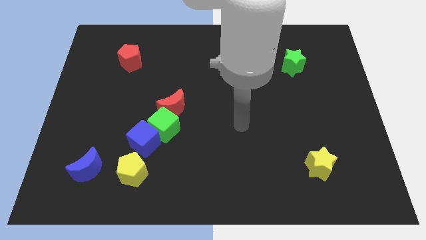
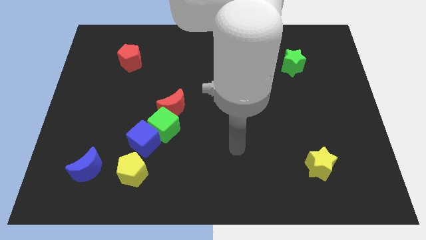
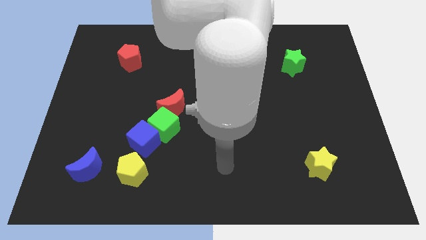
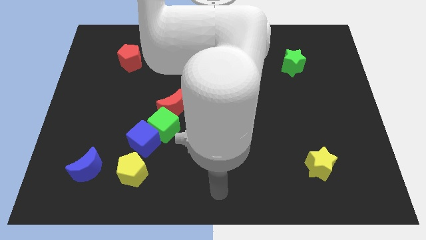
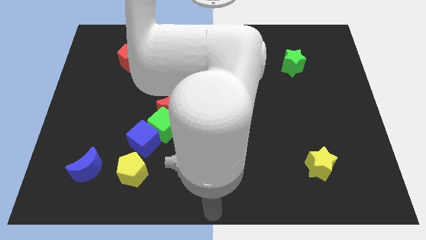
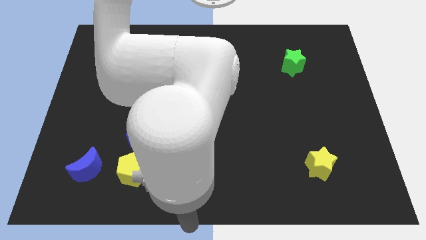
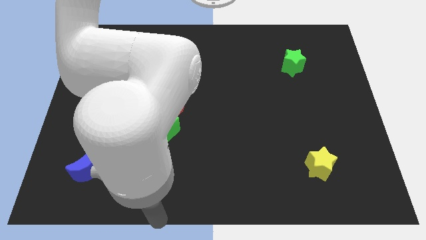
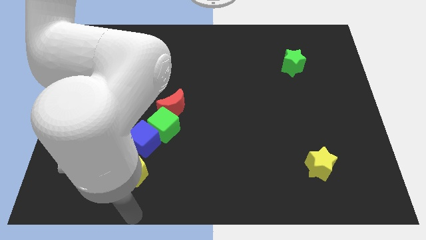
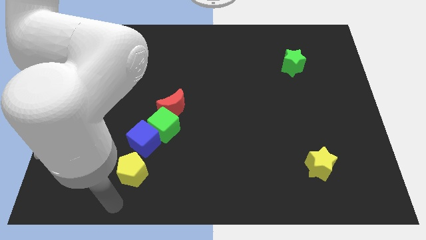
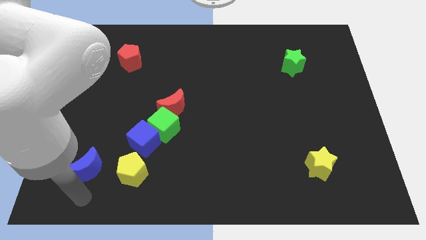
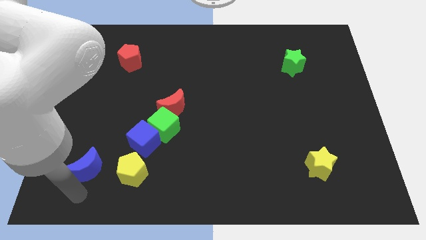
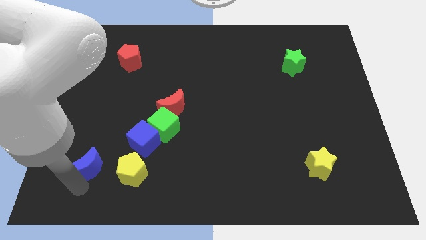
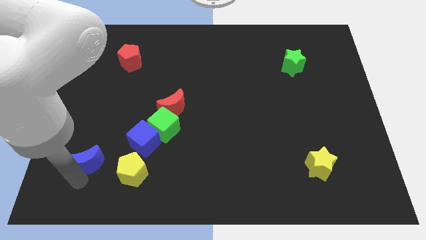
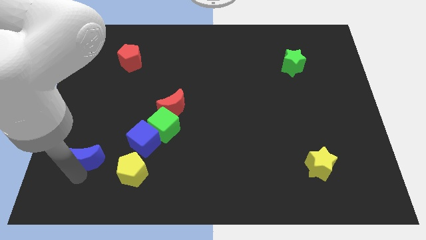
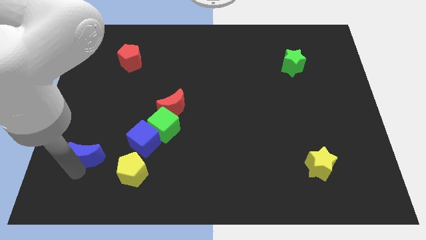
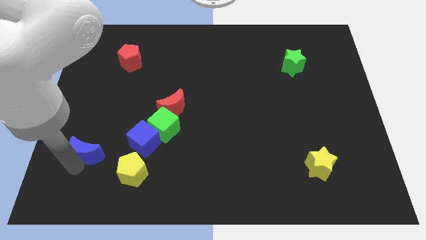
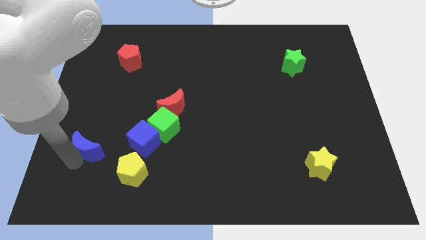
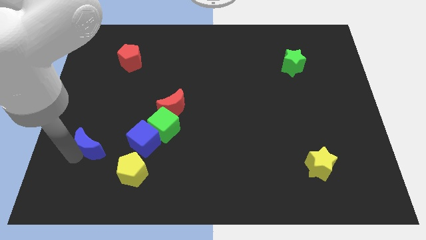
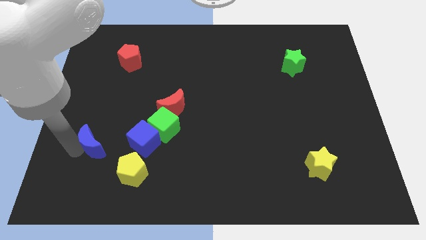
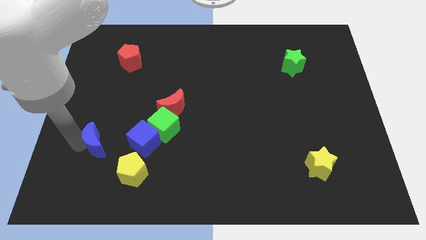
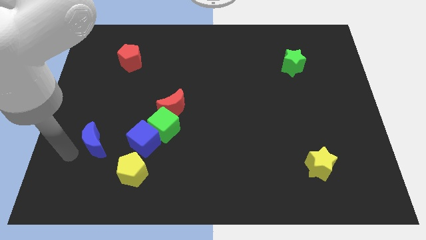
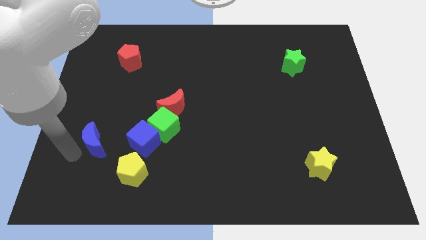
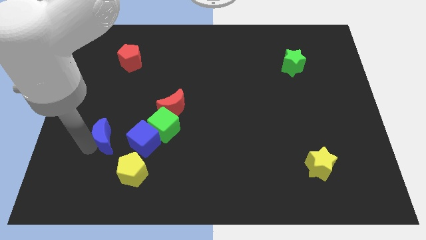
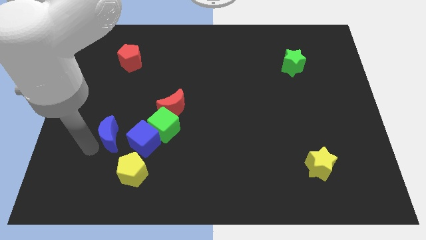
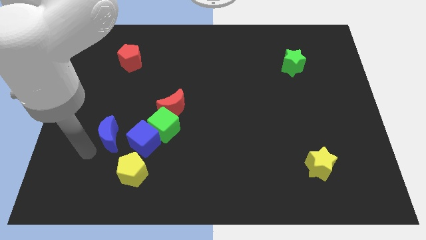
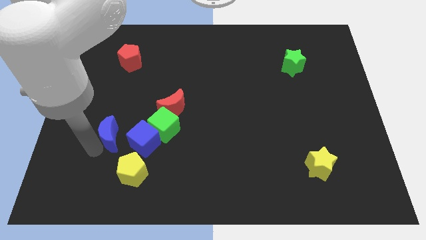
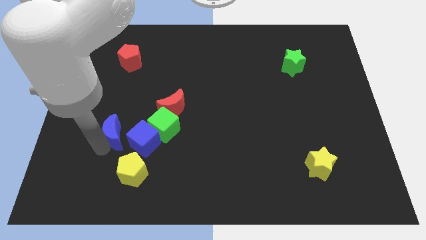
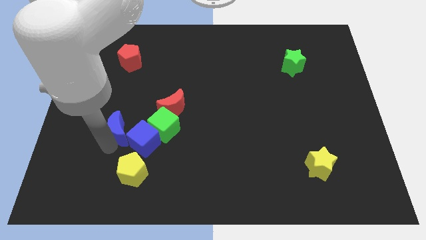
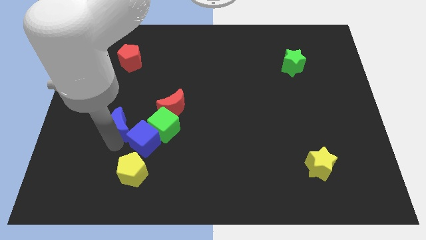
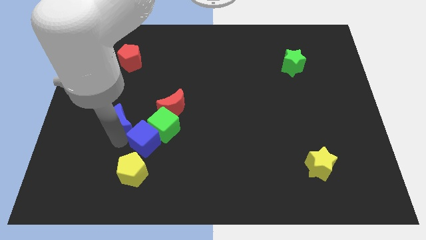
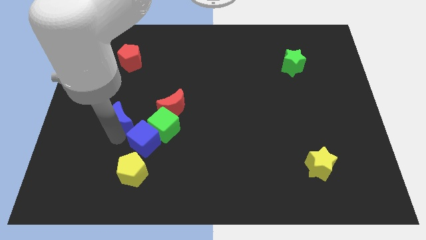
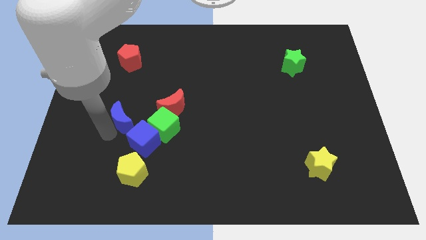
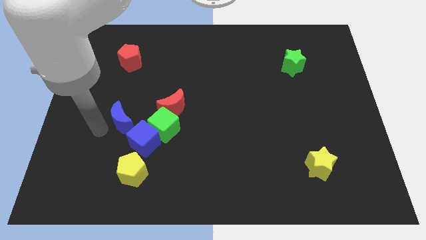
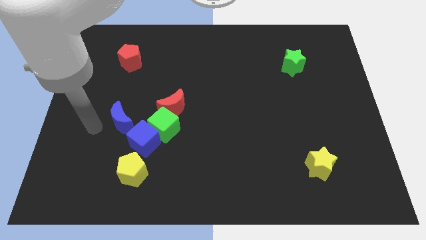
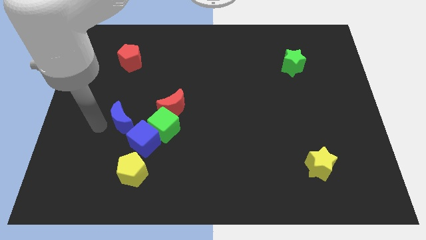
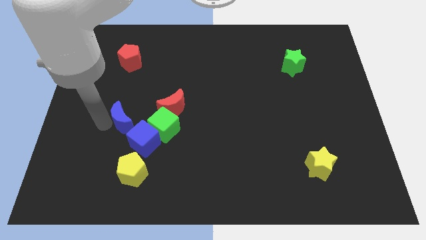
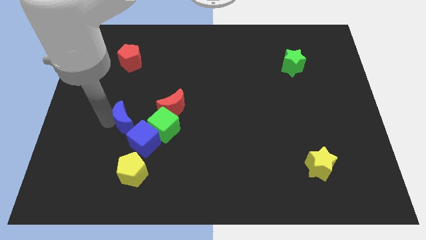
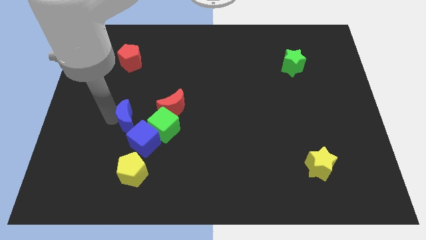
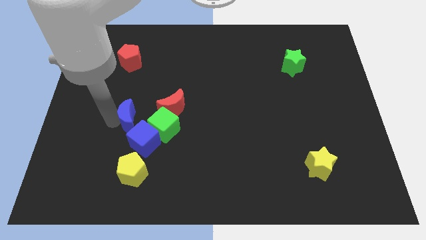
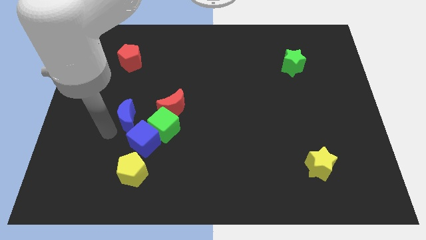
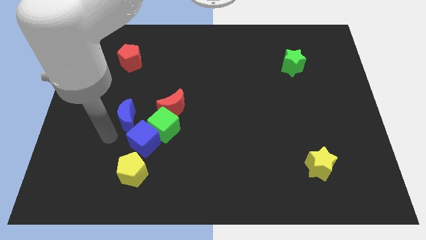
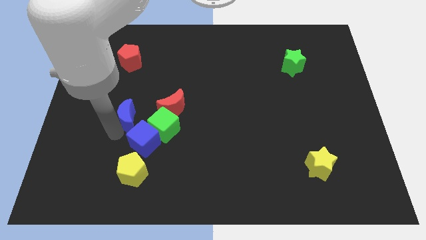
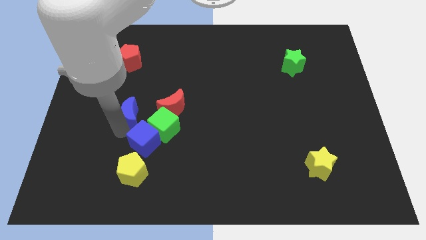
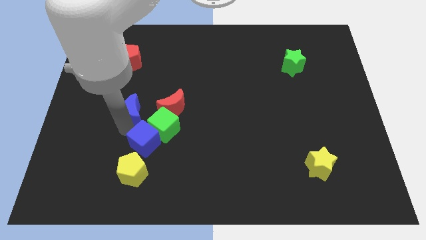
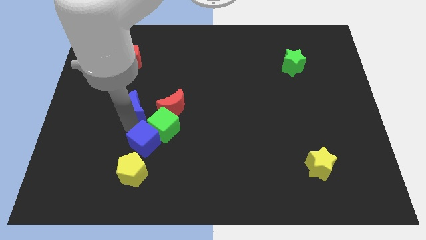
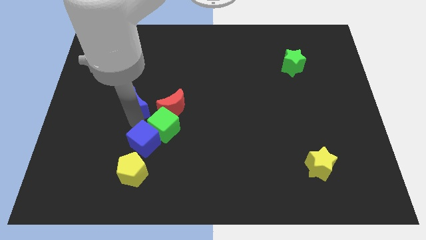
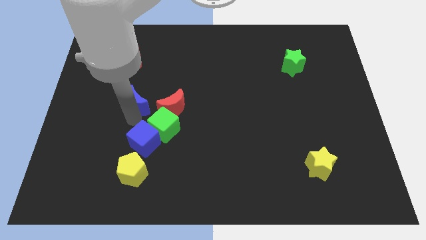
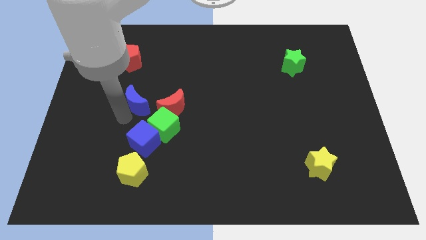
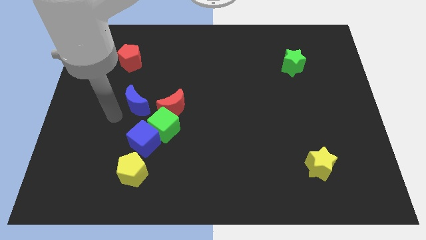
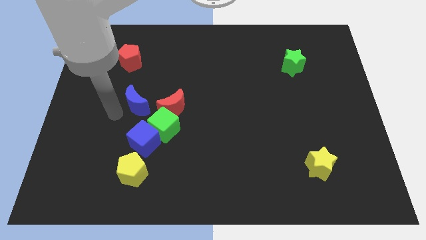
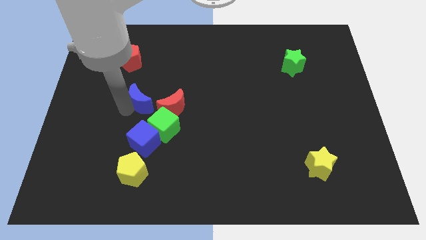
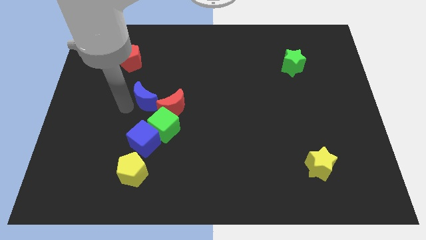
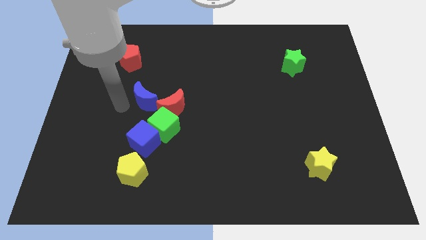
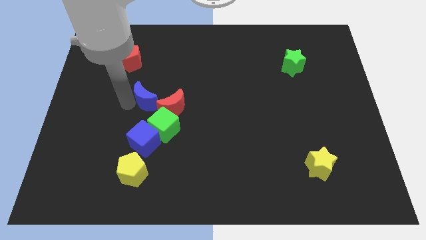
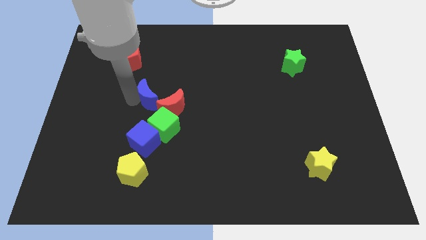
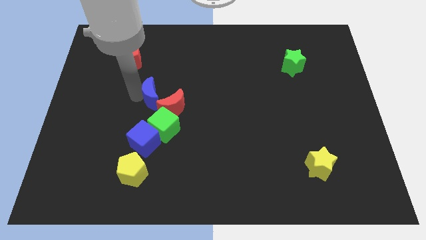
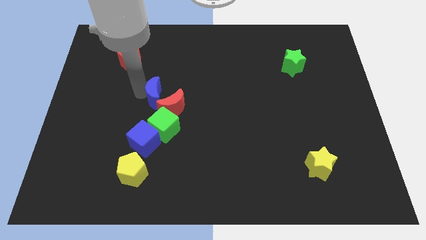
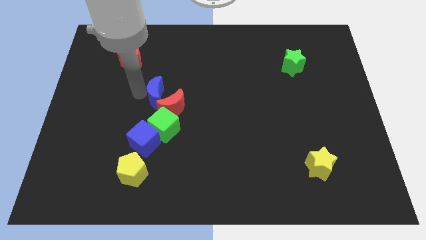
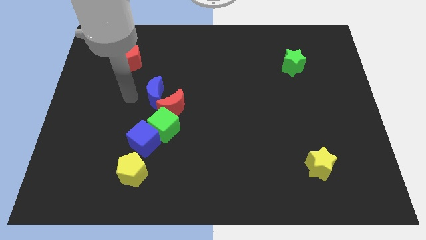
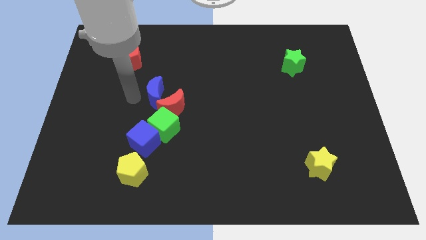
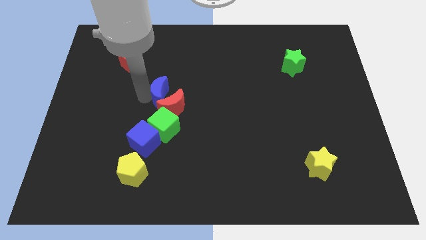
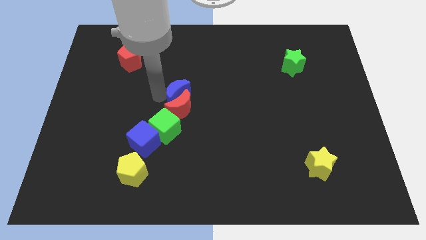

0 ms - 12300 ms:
move the blue moon diagonally up and to the right of the red moon

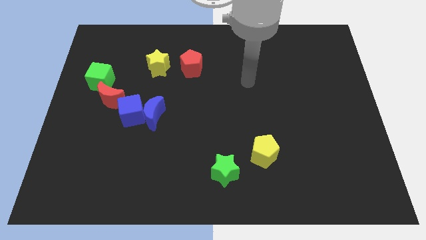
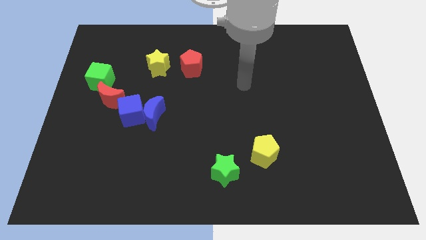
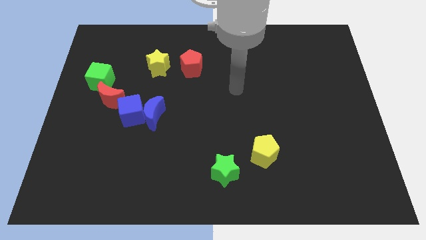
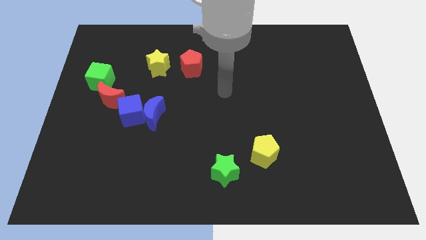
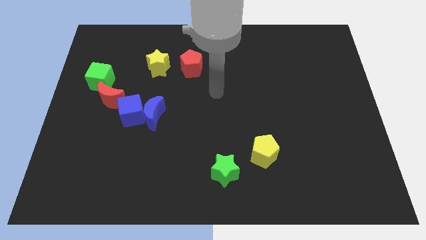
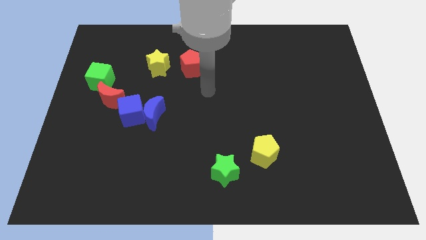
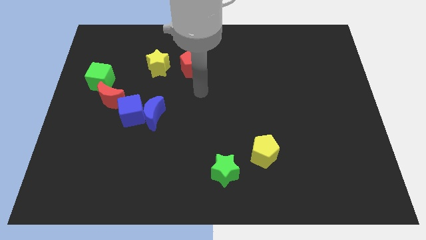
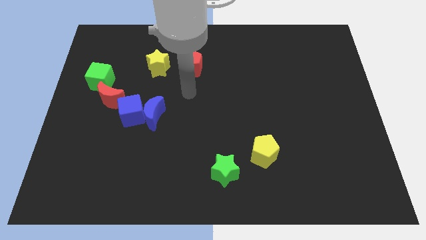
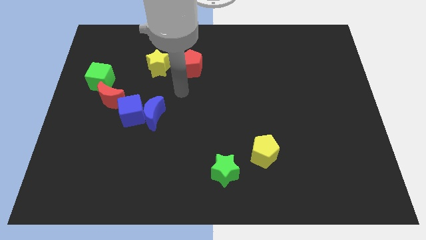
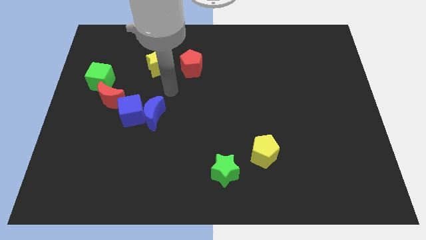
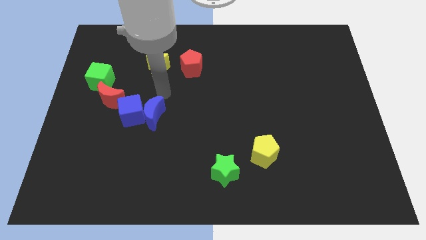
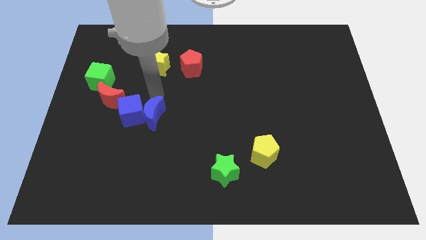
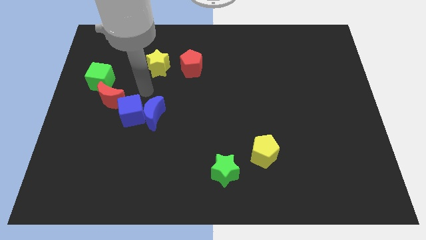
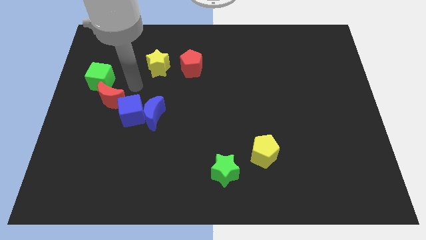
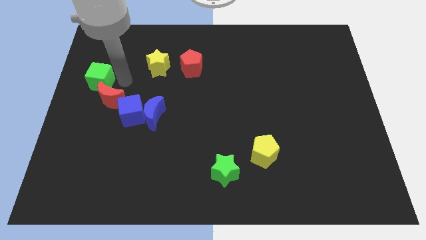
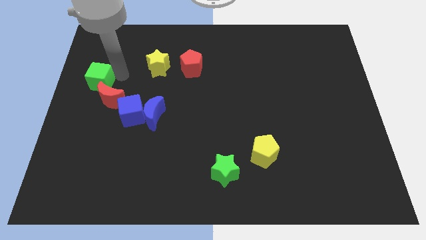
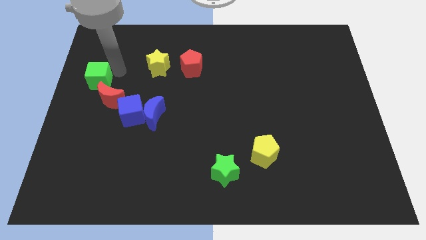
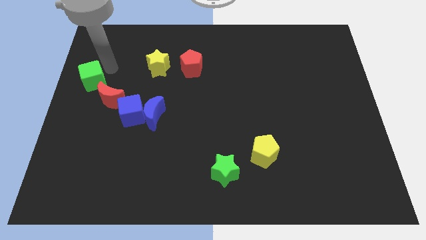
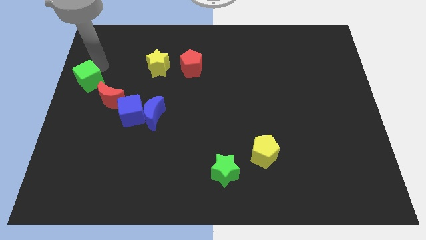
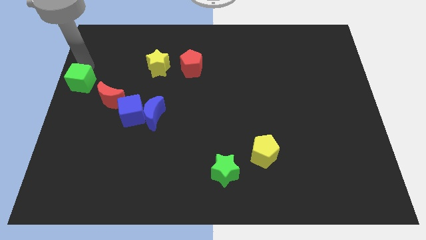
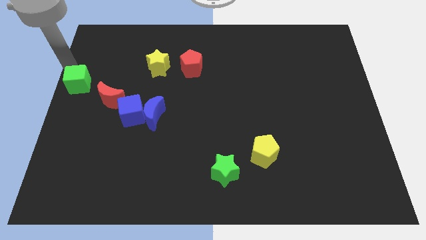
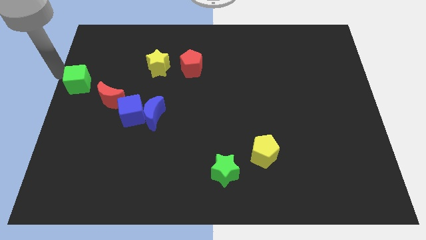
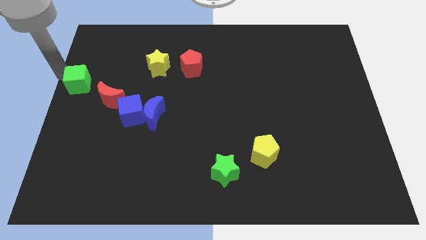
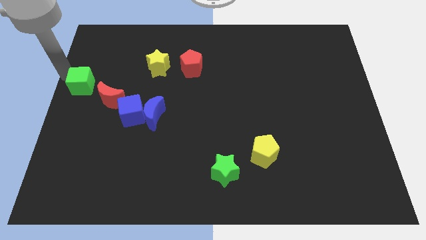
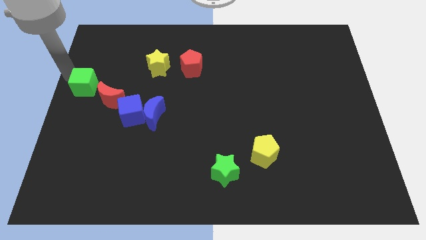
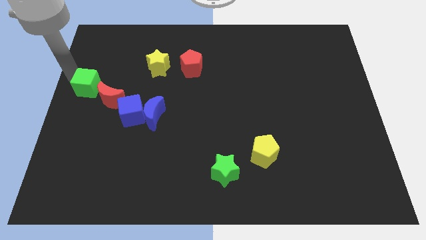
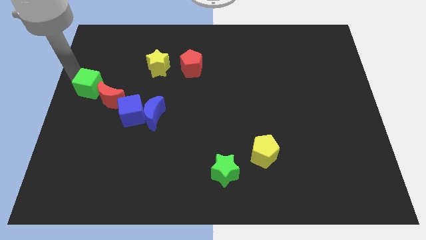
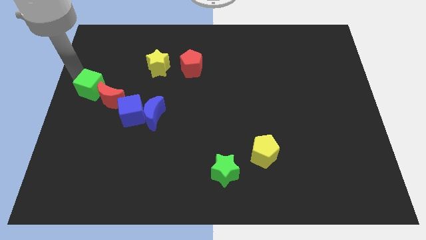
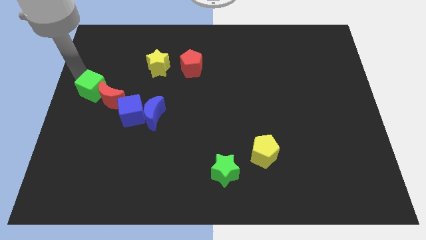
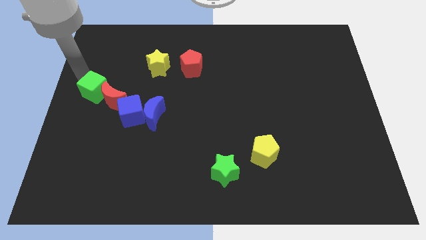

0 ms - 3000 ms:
move the green cube to the top left of the blue cube
